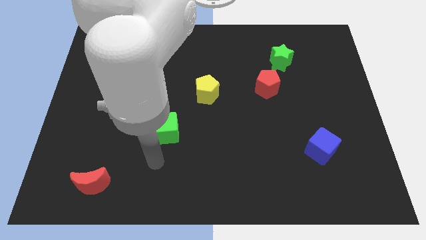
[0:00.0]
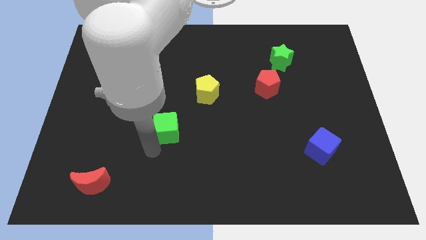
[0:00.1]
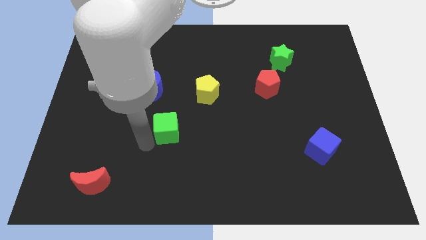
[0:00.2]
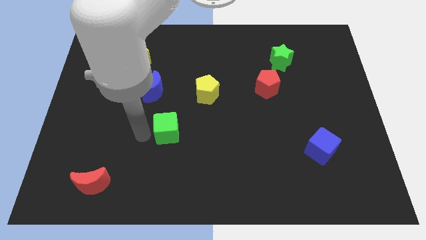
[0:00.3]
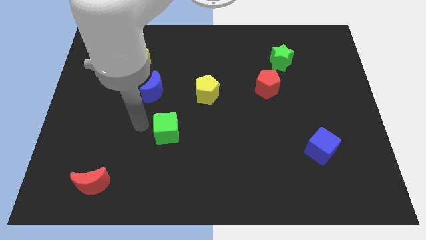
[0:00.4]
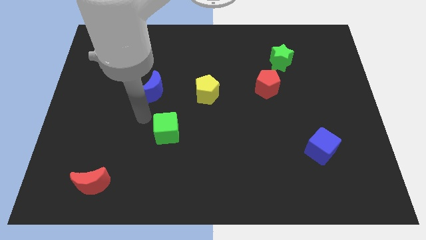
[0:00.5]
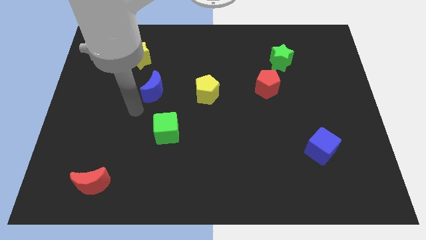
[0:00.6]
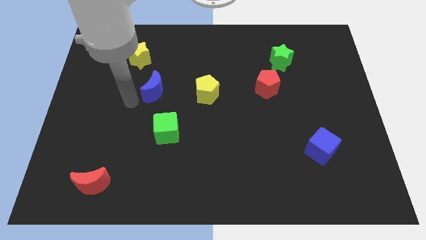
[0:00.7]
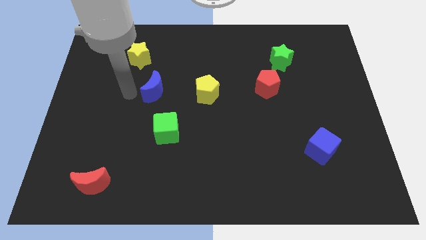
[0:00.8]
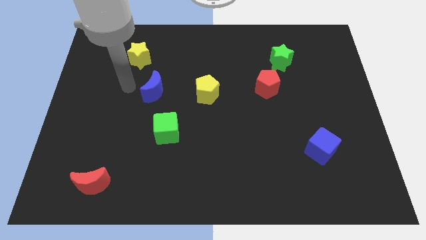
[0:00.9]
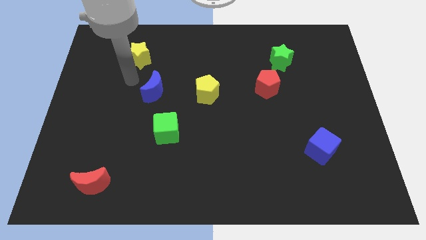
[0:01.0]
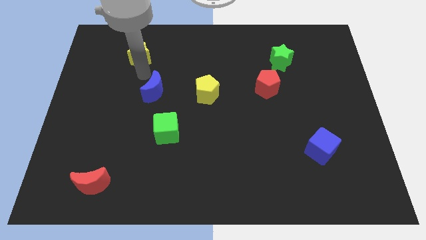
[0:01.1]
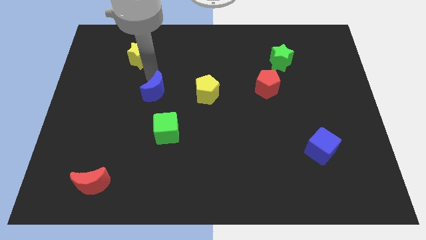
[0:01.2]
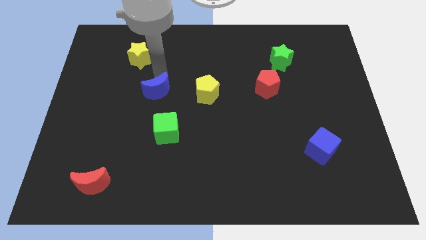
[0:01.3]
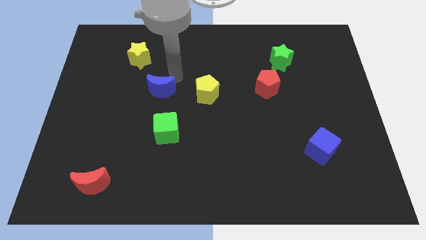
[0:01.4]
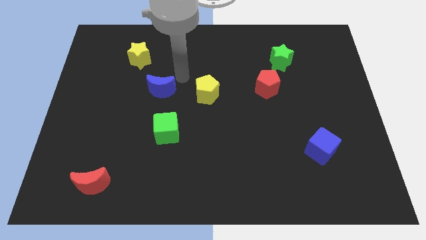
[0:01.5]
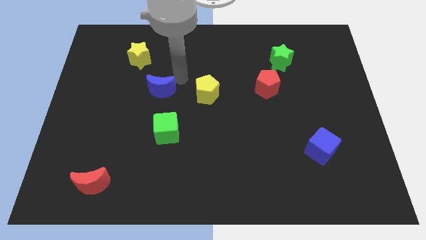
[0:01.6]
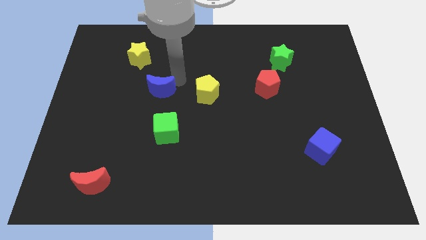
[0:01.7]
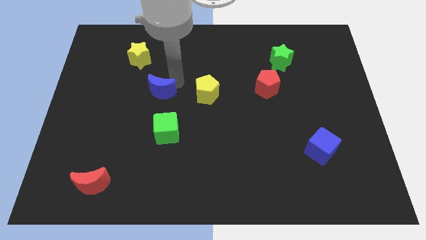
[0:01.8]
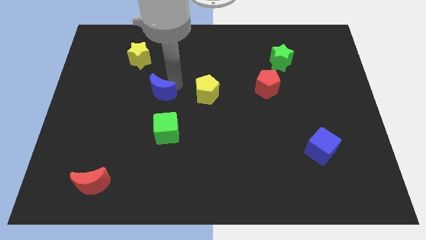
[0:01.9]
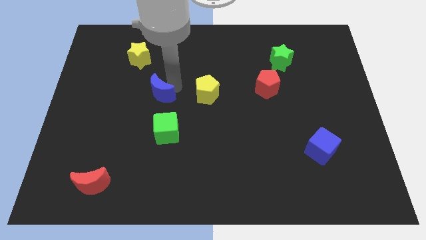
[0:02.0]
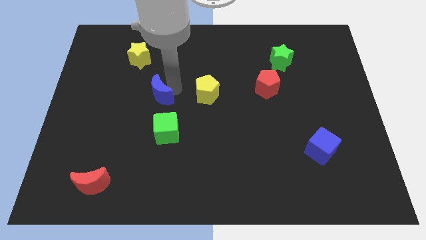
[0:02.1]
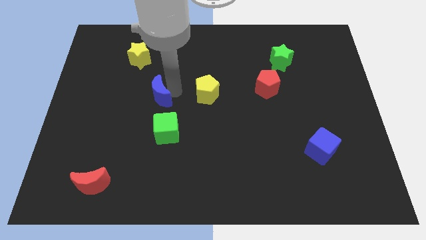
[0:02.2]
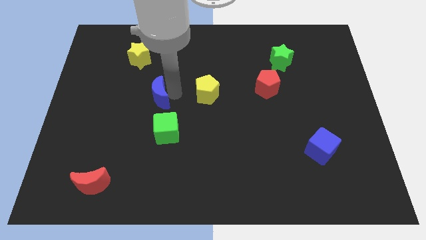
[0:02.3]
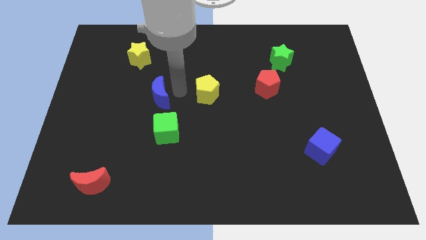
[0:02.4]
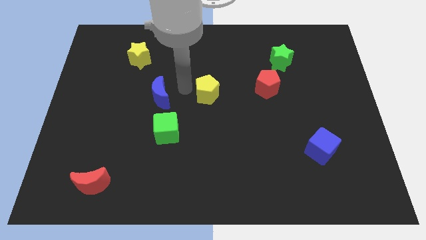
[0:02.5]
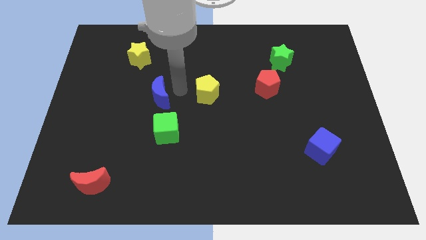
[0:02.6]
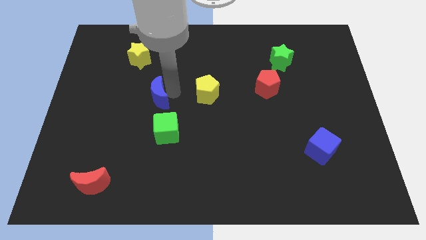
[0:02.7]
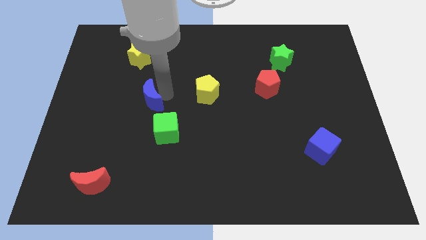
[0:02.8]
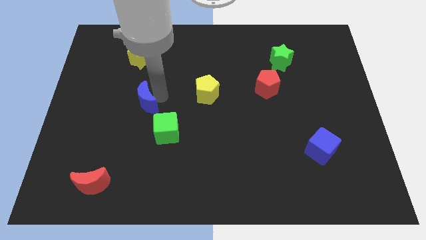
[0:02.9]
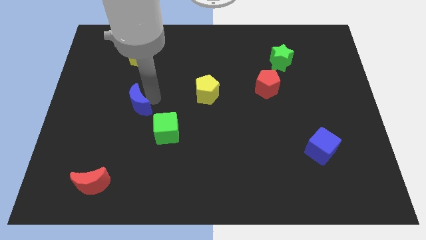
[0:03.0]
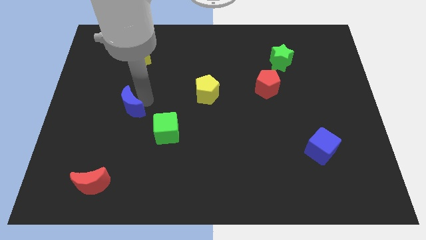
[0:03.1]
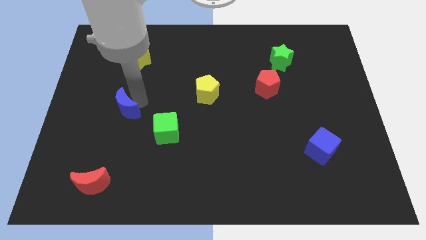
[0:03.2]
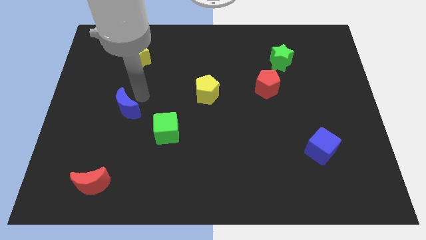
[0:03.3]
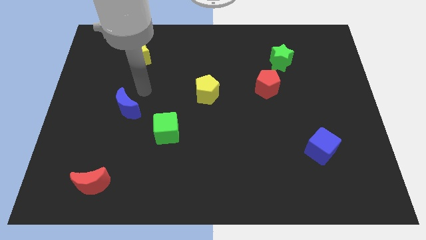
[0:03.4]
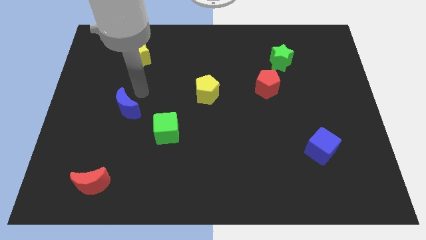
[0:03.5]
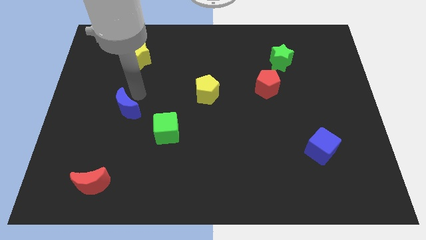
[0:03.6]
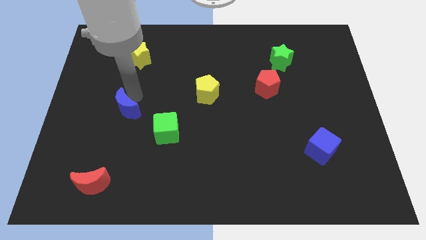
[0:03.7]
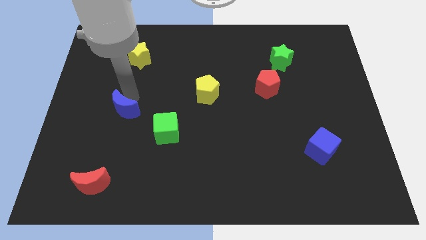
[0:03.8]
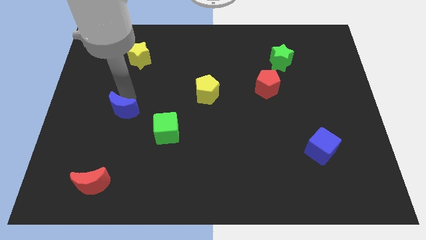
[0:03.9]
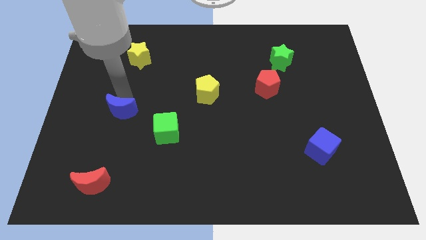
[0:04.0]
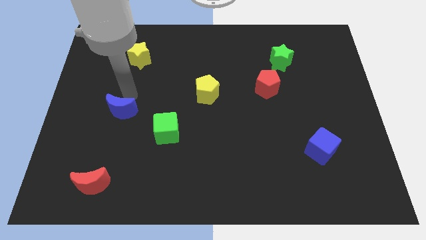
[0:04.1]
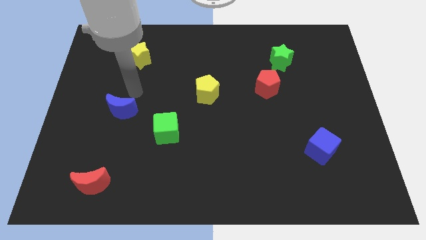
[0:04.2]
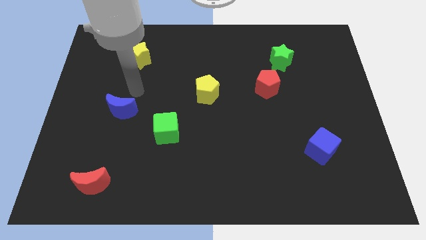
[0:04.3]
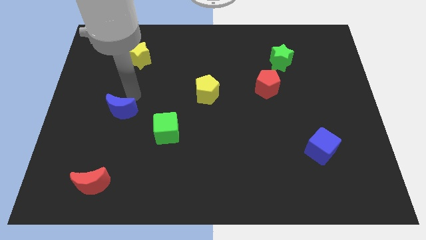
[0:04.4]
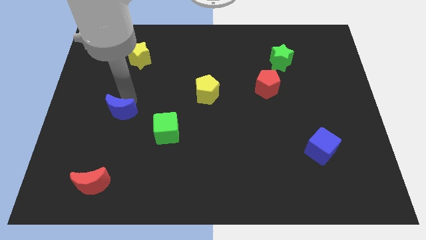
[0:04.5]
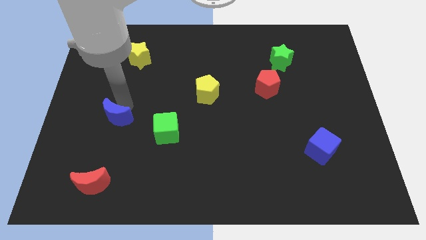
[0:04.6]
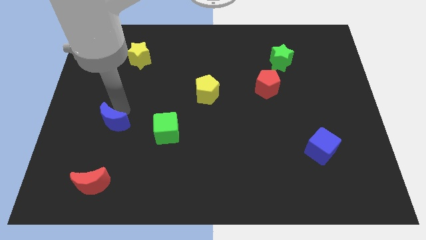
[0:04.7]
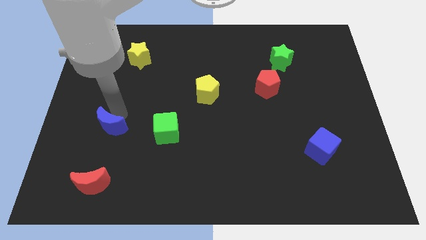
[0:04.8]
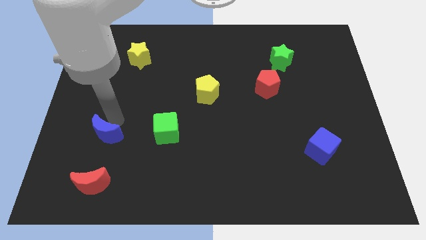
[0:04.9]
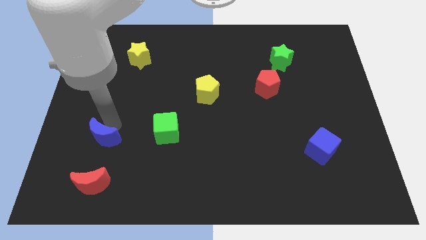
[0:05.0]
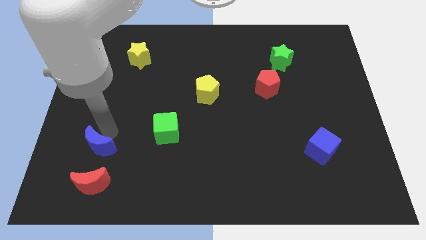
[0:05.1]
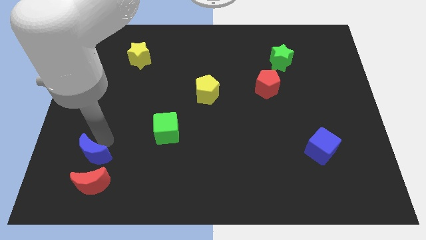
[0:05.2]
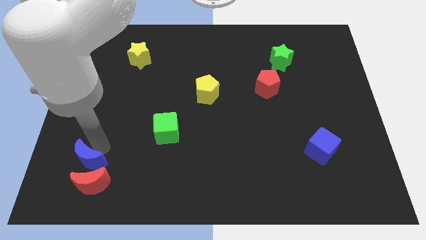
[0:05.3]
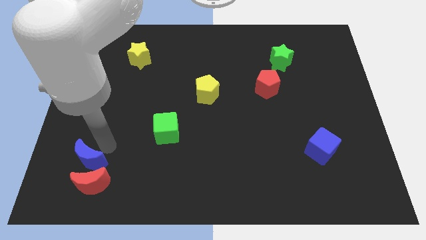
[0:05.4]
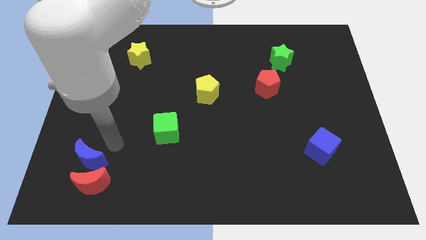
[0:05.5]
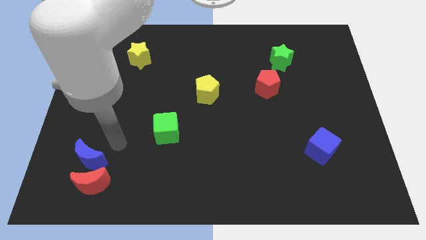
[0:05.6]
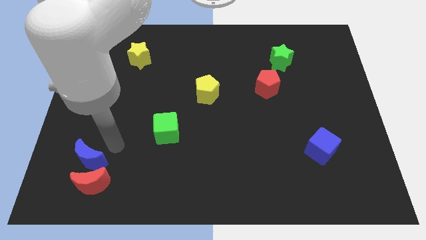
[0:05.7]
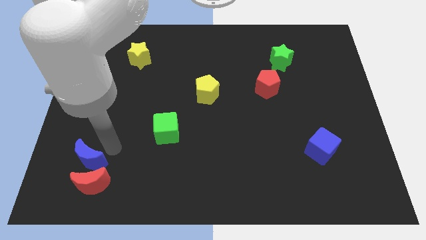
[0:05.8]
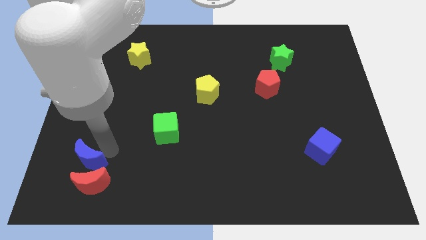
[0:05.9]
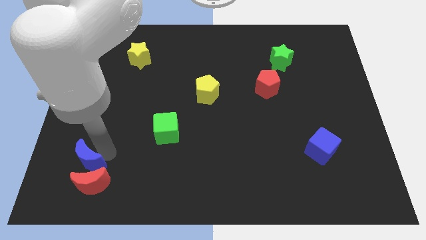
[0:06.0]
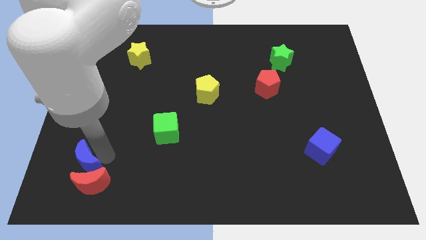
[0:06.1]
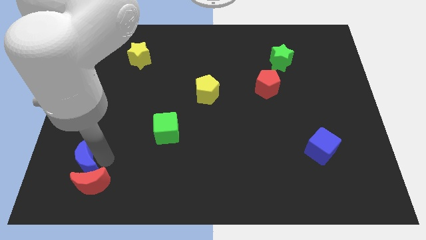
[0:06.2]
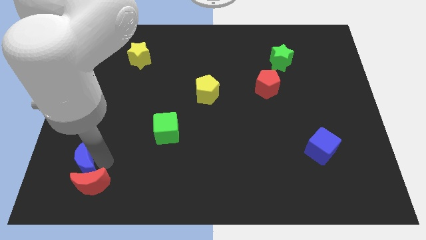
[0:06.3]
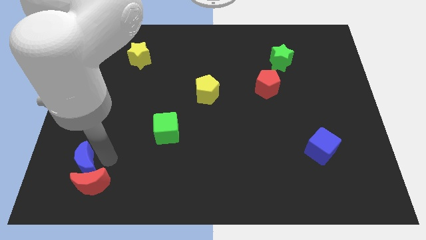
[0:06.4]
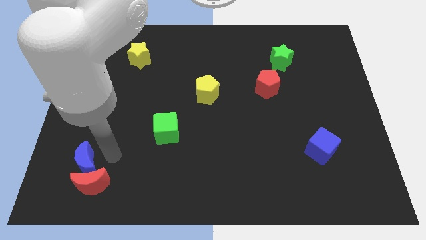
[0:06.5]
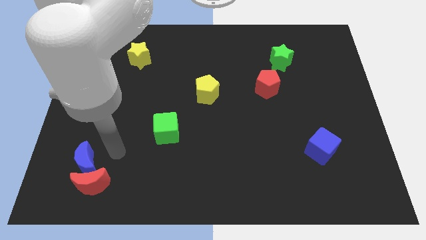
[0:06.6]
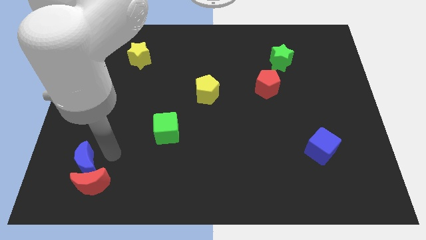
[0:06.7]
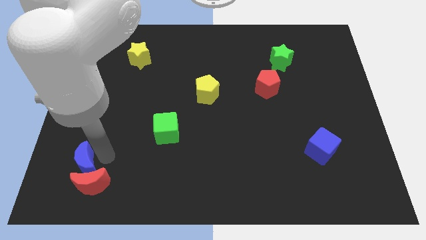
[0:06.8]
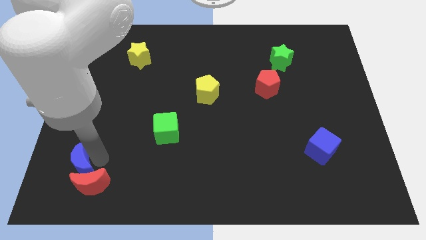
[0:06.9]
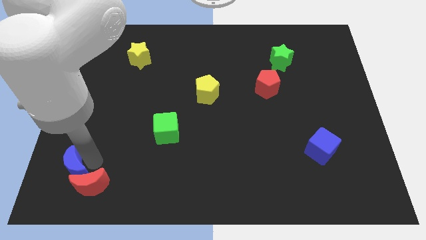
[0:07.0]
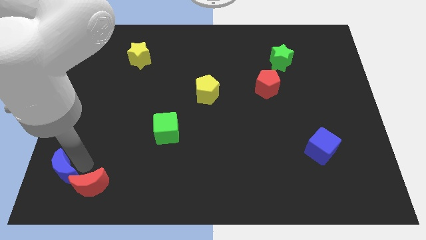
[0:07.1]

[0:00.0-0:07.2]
move the blue moon to the lower left corner
